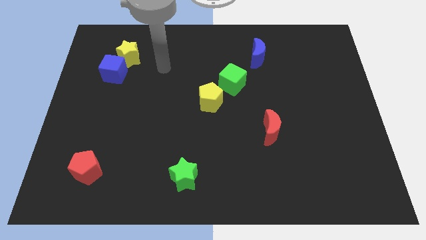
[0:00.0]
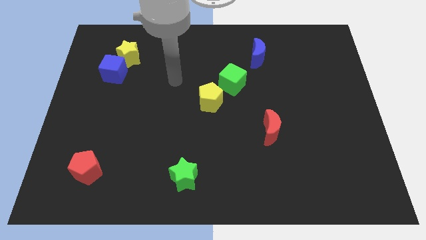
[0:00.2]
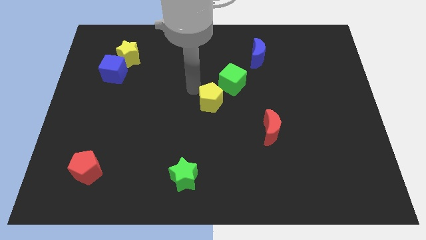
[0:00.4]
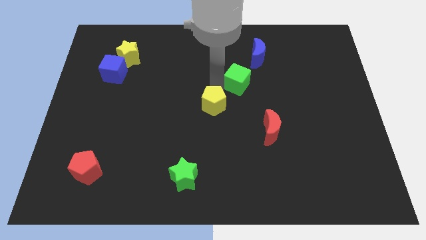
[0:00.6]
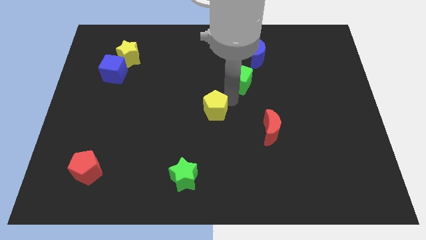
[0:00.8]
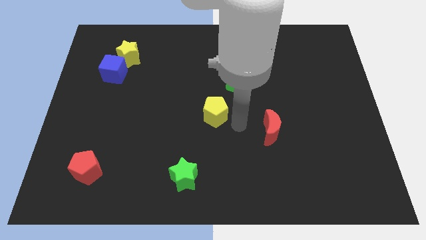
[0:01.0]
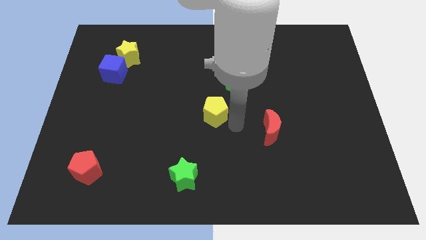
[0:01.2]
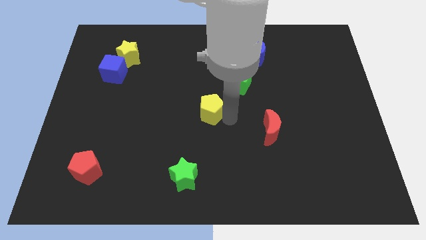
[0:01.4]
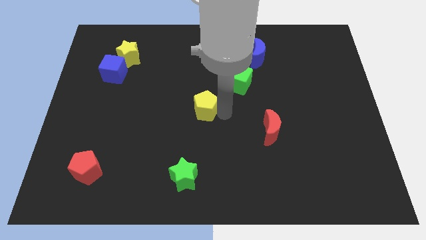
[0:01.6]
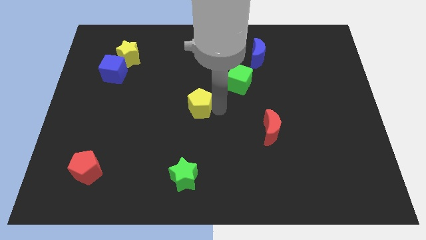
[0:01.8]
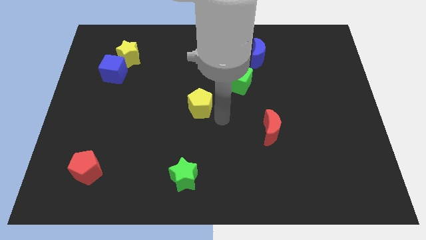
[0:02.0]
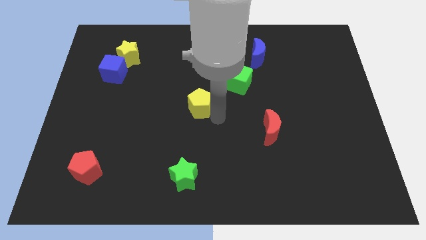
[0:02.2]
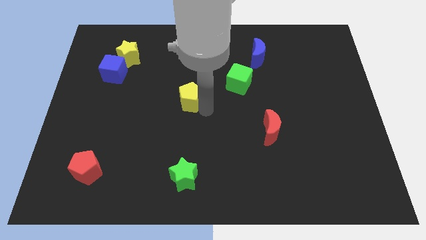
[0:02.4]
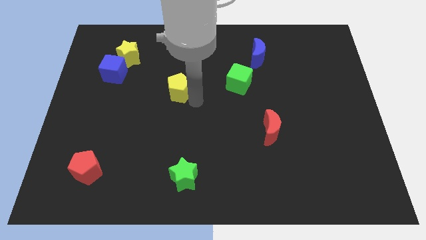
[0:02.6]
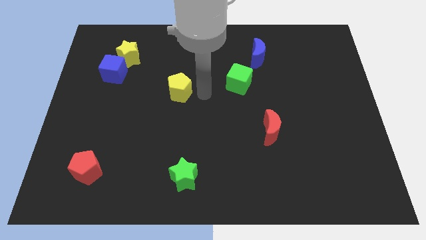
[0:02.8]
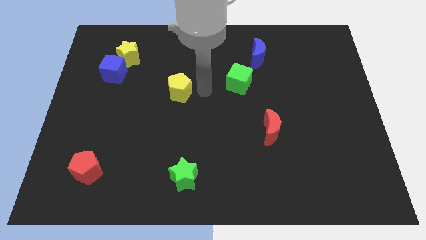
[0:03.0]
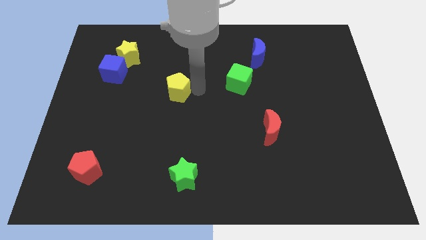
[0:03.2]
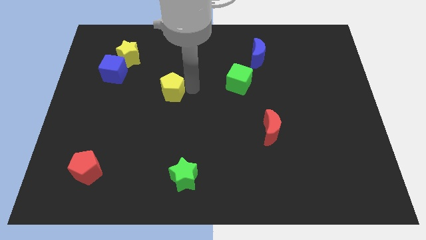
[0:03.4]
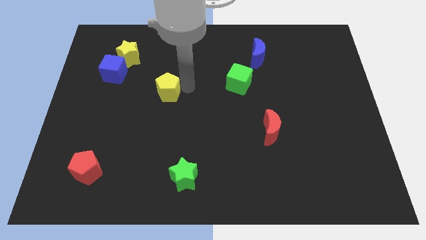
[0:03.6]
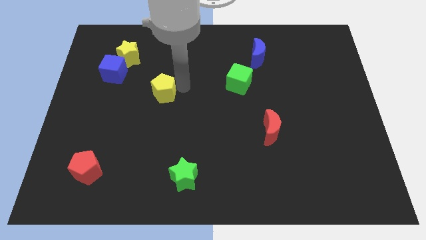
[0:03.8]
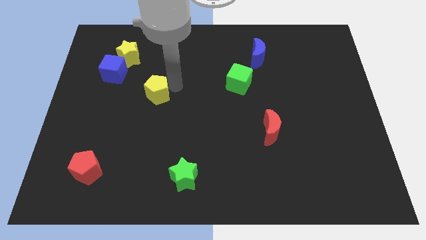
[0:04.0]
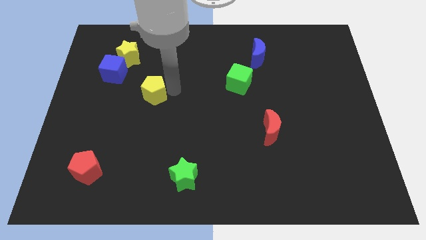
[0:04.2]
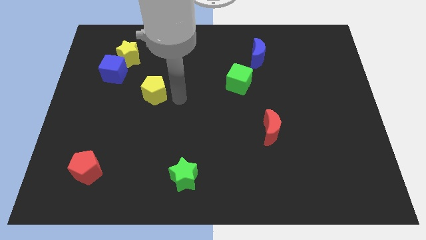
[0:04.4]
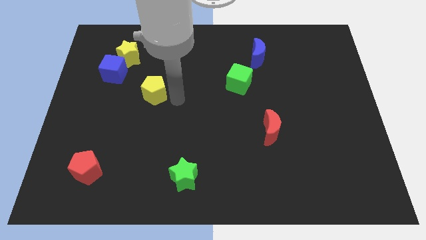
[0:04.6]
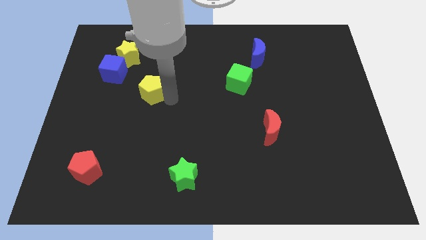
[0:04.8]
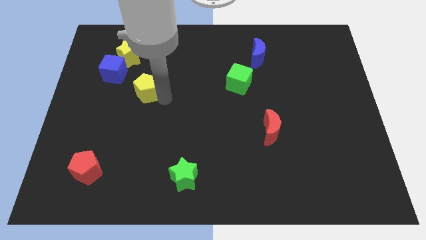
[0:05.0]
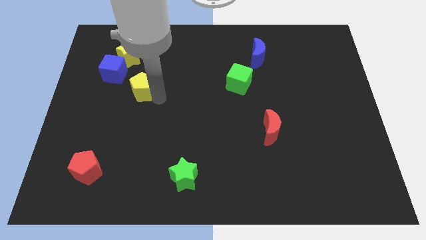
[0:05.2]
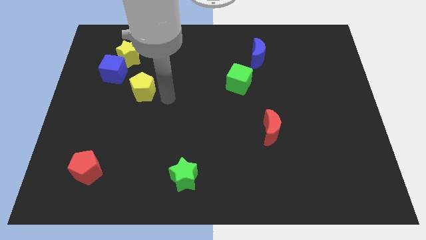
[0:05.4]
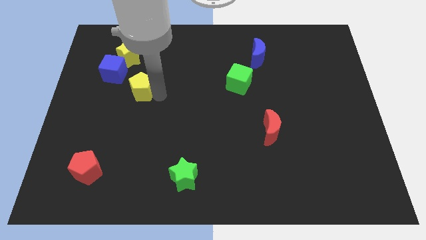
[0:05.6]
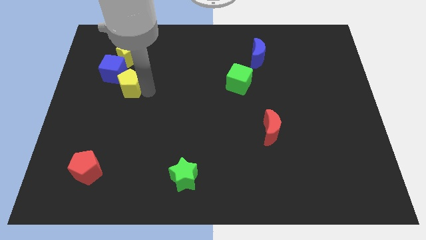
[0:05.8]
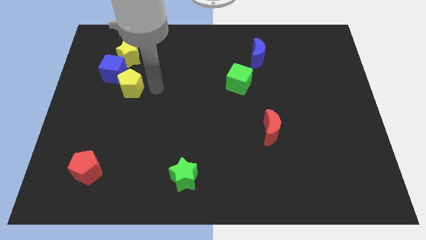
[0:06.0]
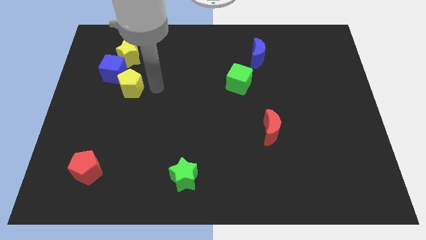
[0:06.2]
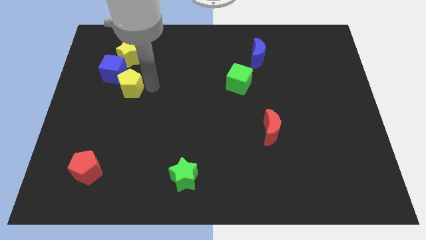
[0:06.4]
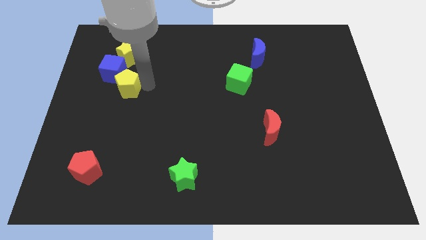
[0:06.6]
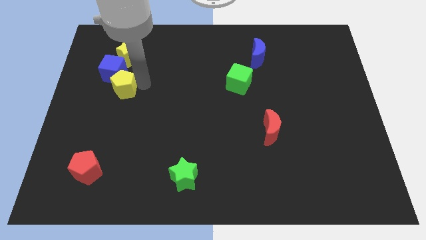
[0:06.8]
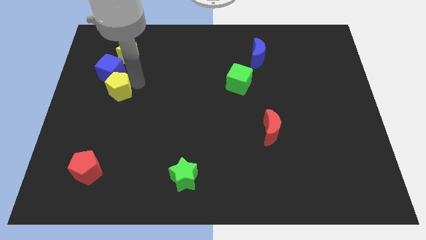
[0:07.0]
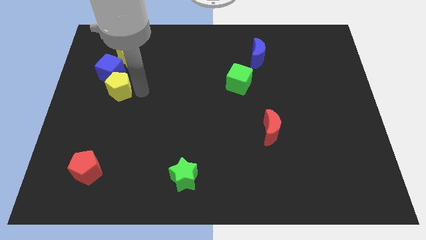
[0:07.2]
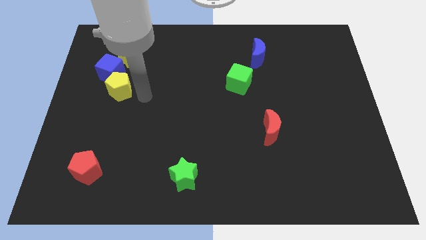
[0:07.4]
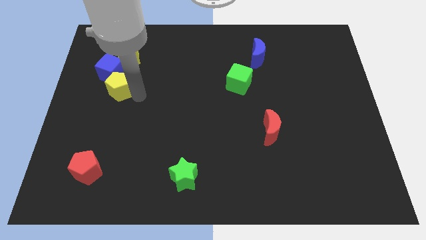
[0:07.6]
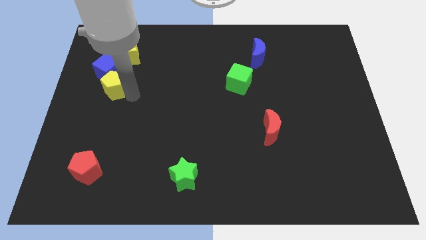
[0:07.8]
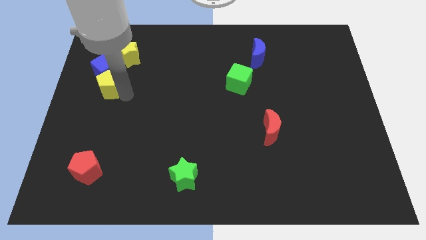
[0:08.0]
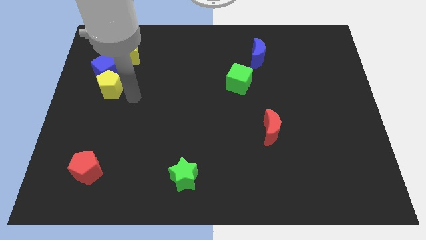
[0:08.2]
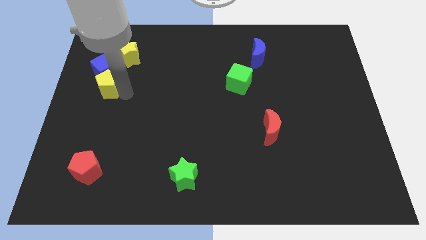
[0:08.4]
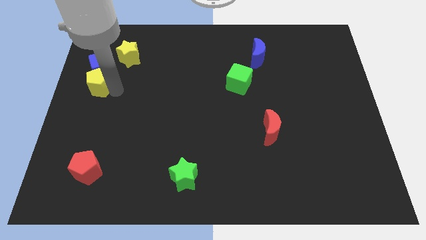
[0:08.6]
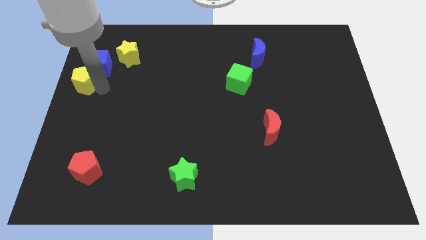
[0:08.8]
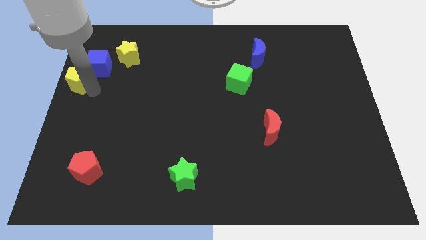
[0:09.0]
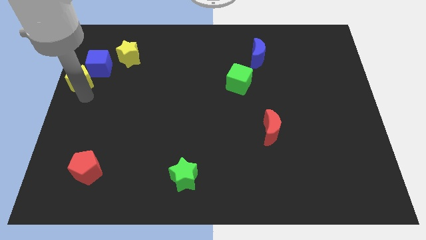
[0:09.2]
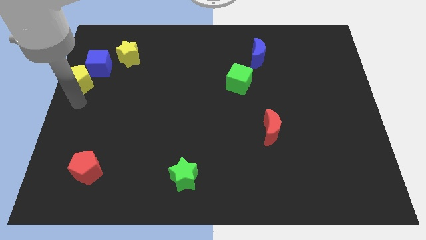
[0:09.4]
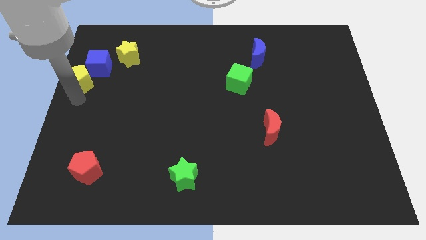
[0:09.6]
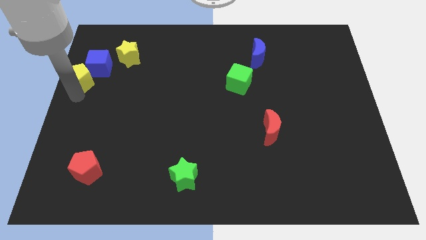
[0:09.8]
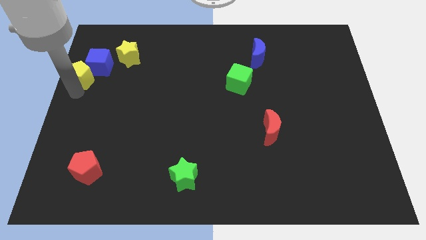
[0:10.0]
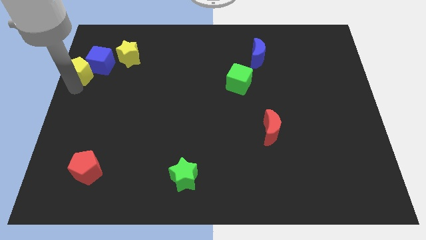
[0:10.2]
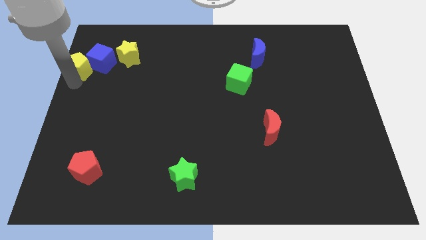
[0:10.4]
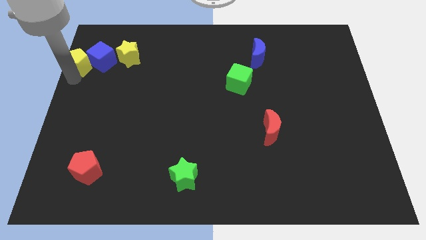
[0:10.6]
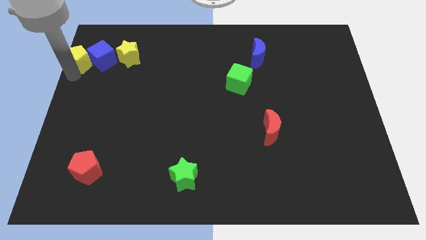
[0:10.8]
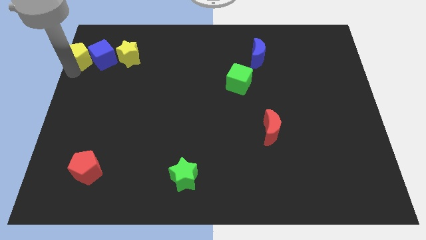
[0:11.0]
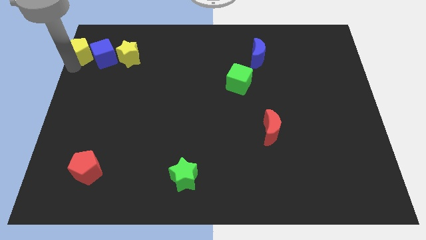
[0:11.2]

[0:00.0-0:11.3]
slide the yellow pentagon to the top left corner
